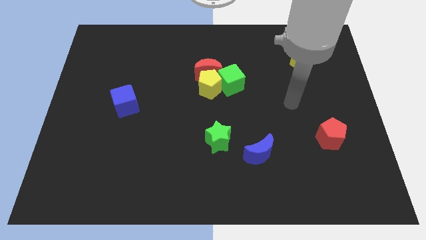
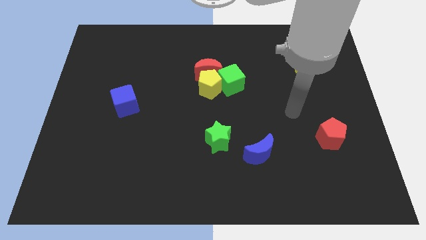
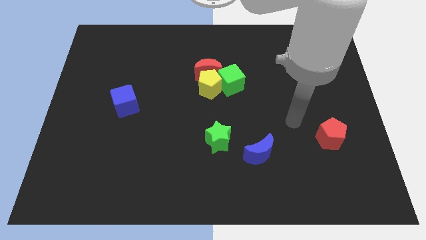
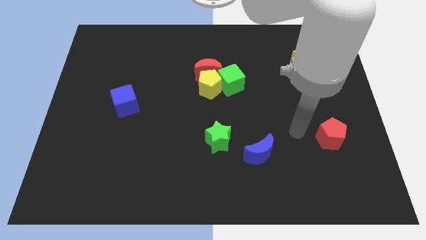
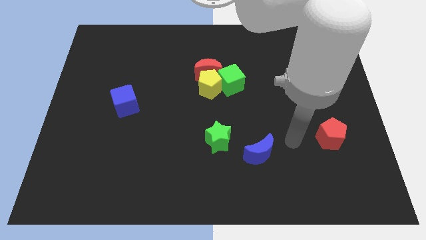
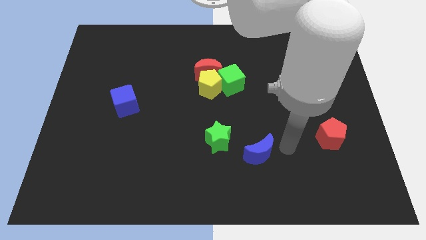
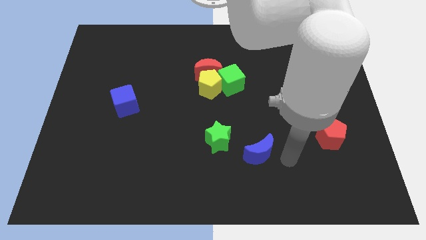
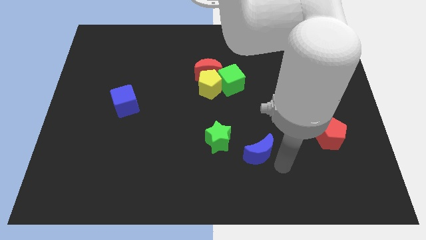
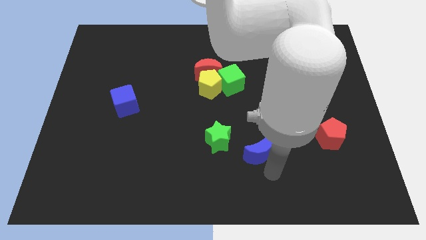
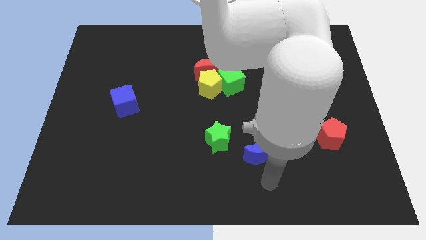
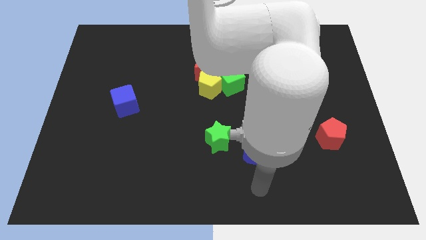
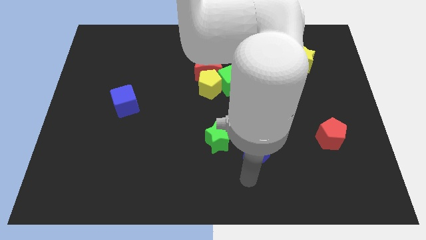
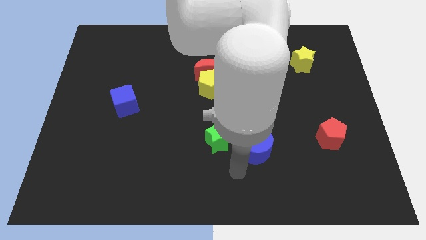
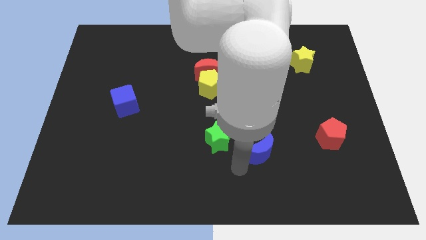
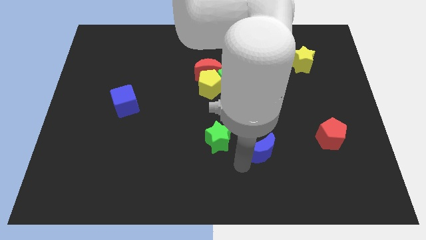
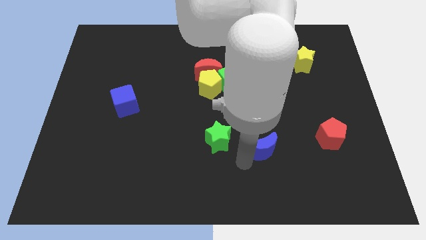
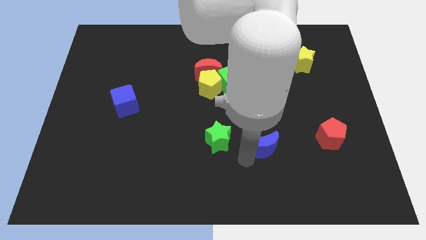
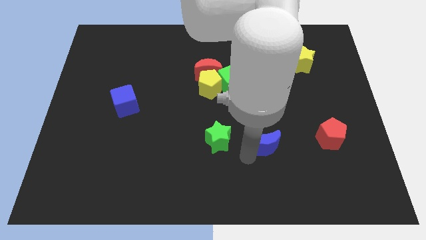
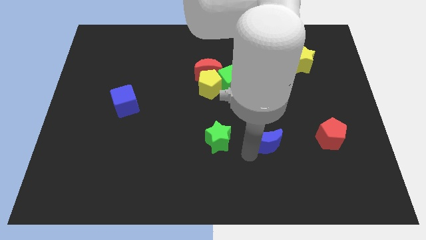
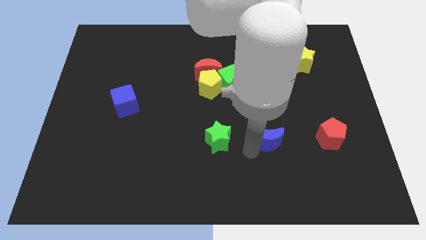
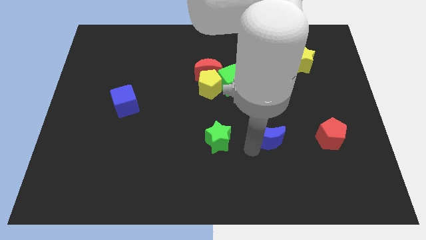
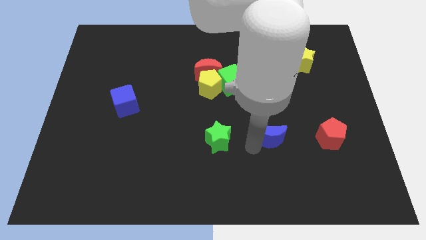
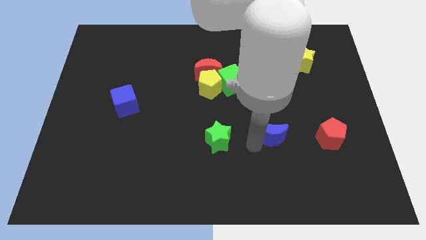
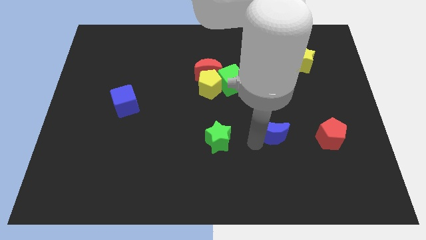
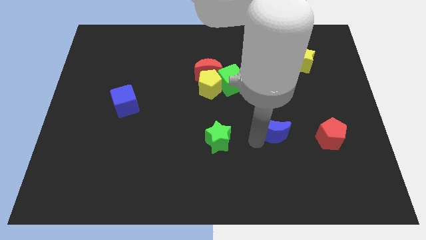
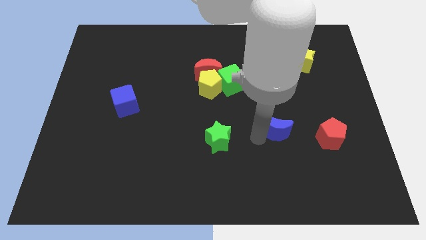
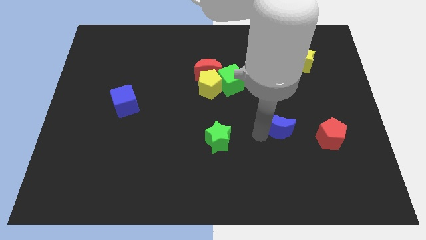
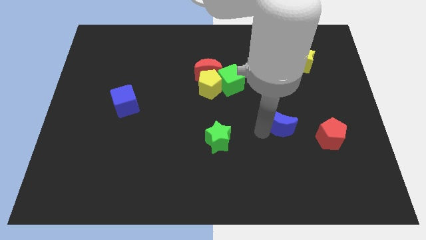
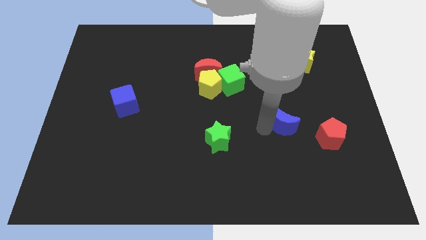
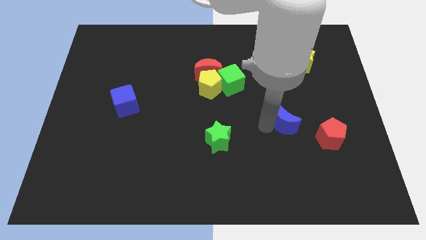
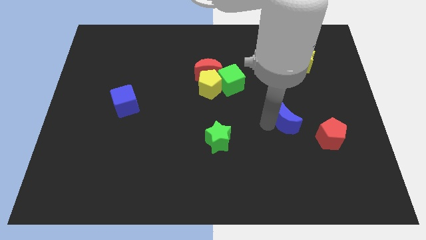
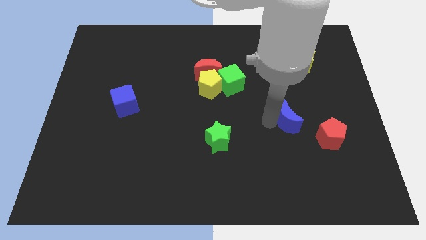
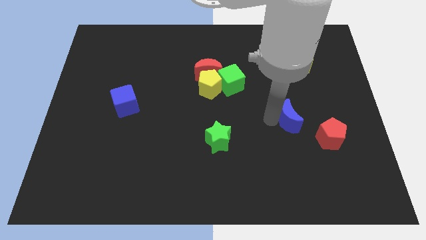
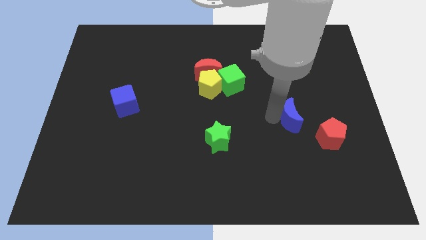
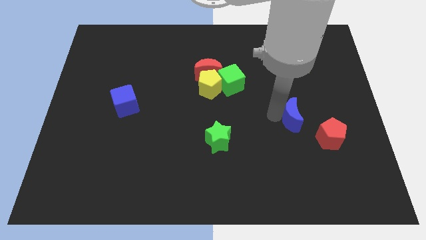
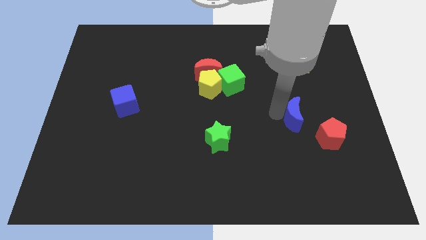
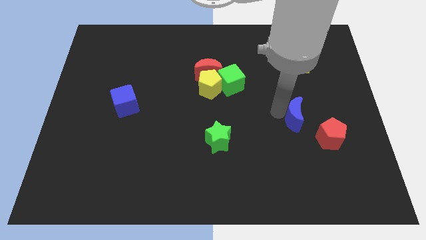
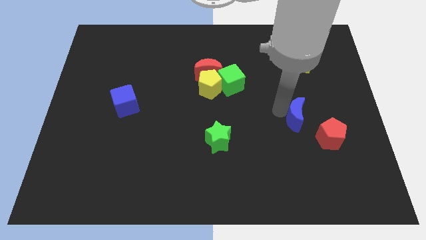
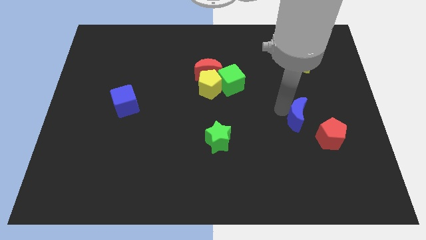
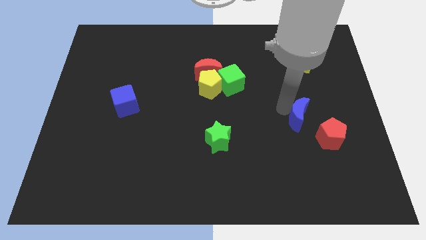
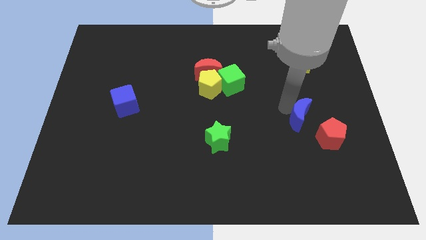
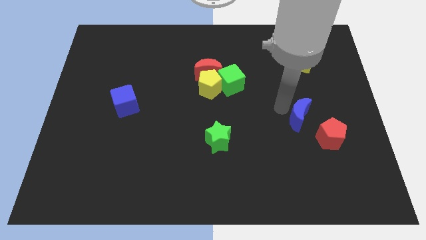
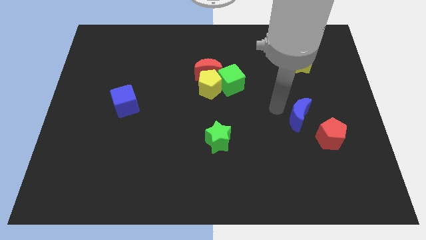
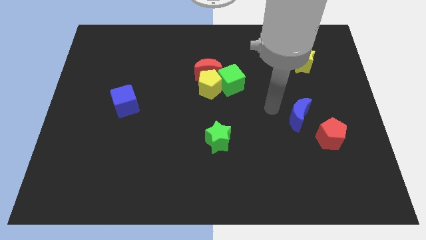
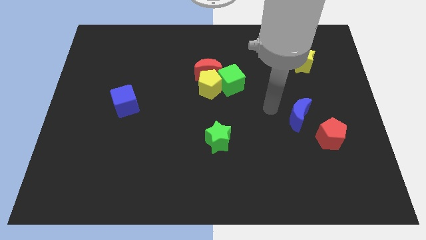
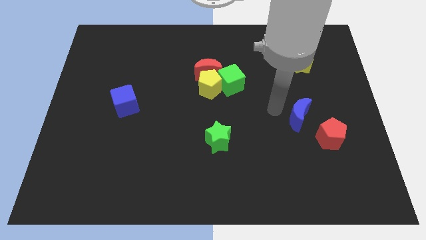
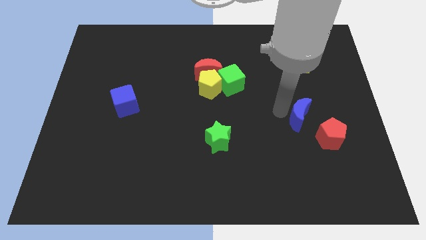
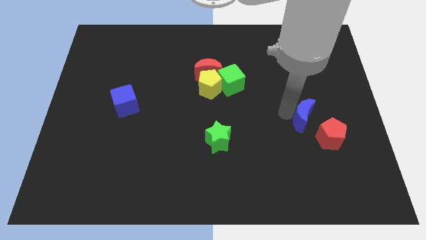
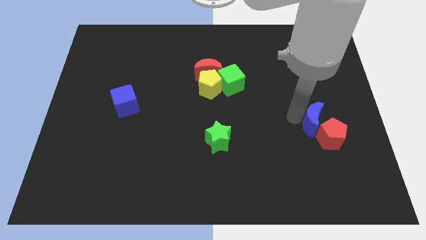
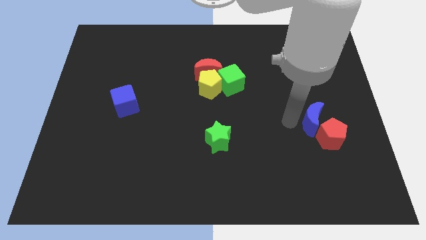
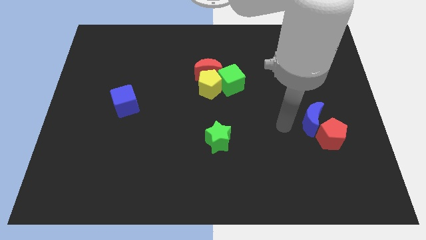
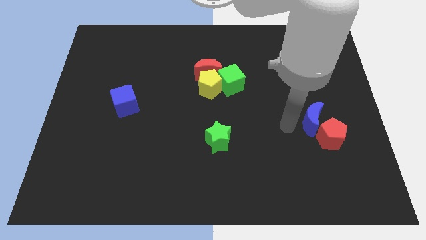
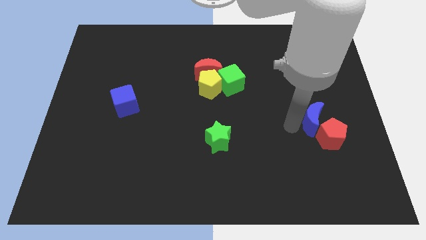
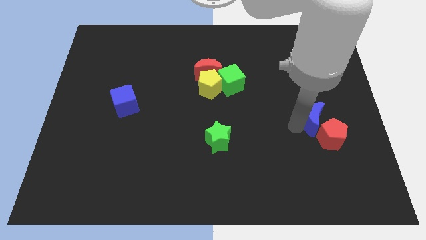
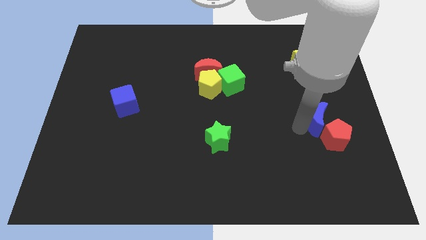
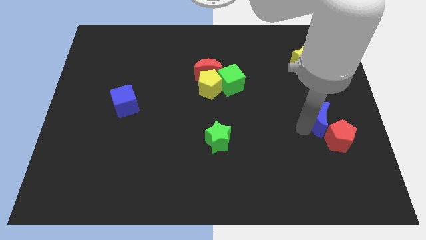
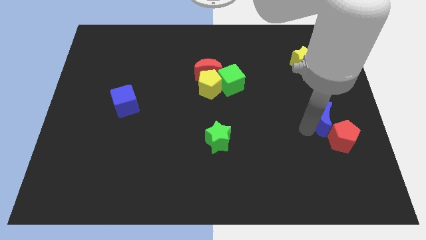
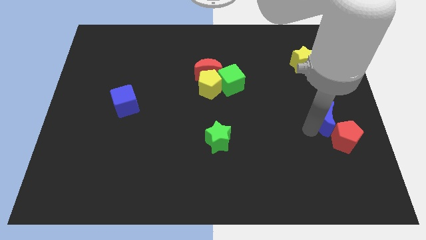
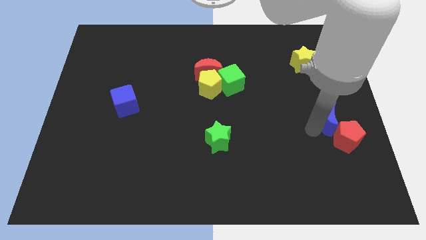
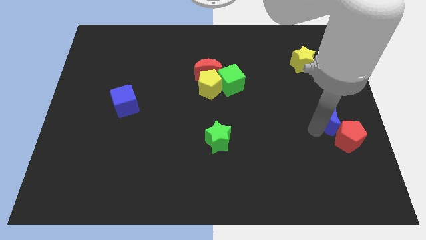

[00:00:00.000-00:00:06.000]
move the blue moon to the right side of the board
